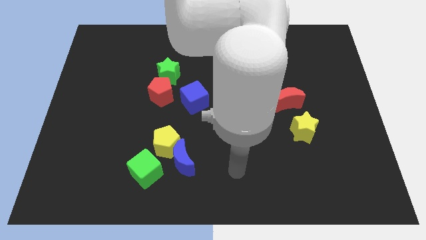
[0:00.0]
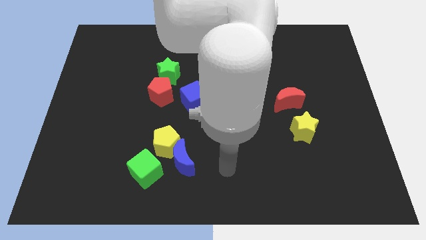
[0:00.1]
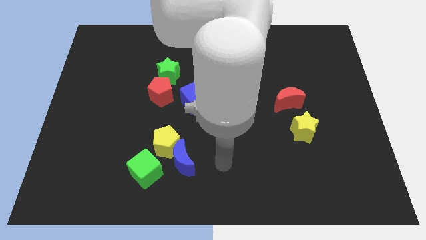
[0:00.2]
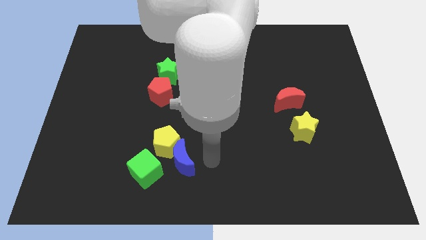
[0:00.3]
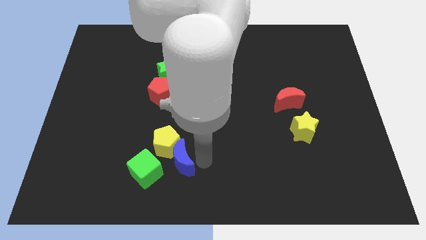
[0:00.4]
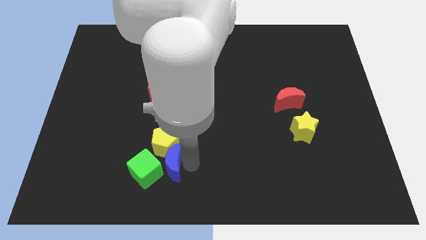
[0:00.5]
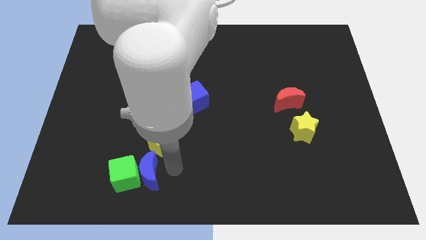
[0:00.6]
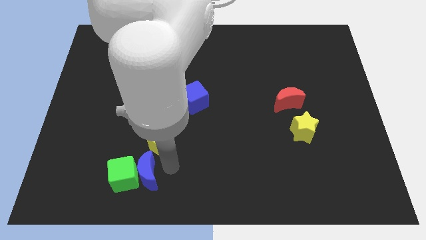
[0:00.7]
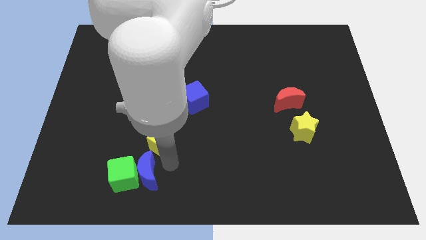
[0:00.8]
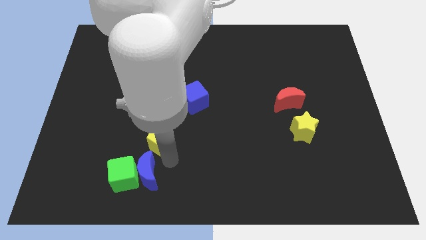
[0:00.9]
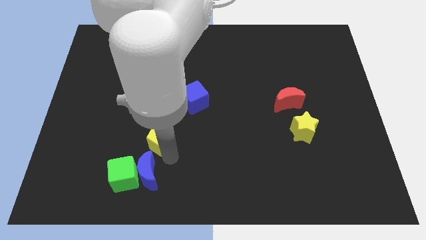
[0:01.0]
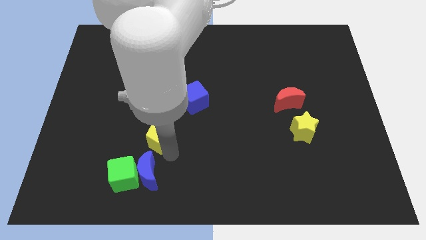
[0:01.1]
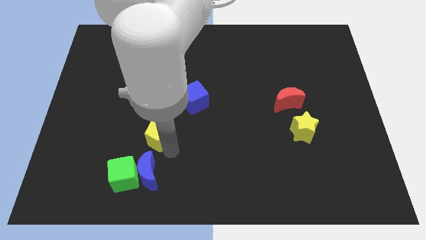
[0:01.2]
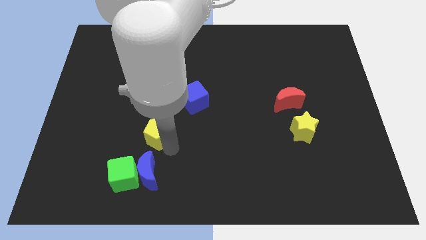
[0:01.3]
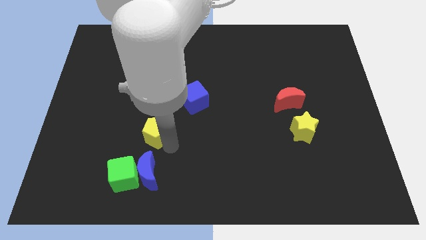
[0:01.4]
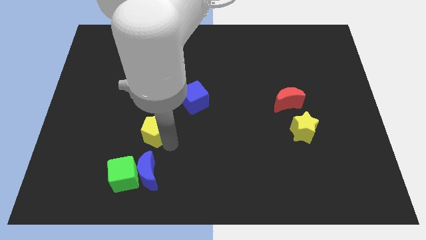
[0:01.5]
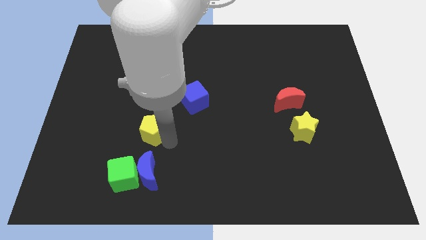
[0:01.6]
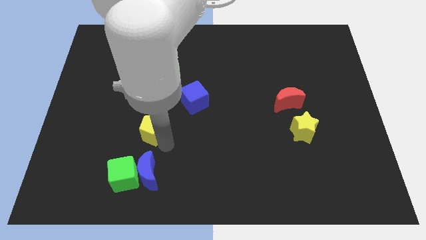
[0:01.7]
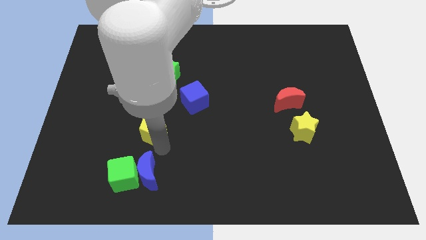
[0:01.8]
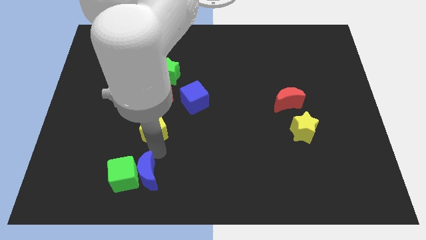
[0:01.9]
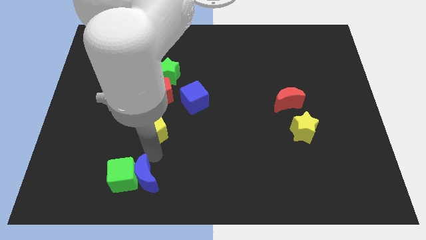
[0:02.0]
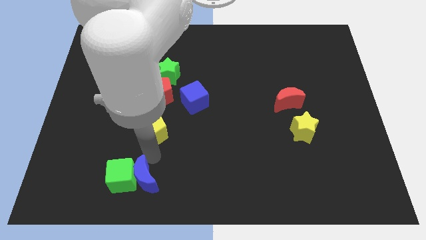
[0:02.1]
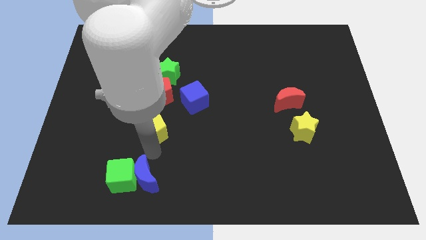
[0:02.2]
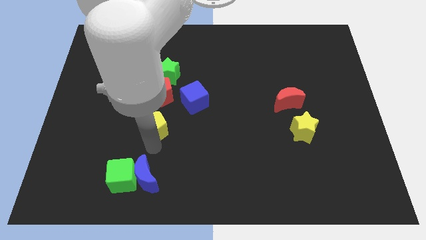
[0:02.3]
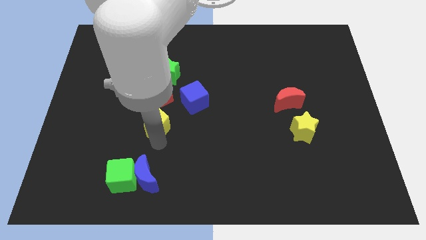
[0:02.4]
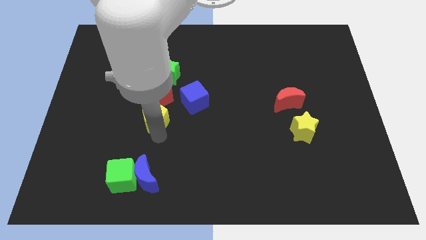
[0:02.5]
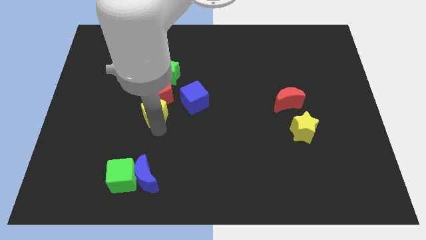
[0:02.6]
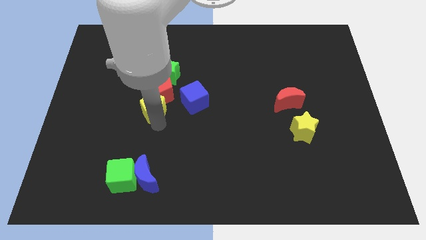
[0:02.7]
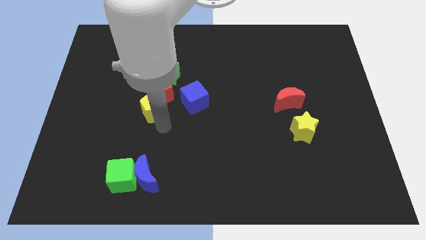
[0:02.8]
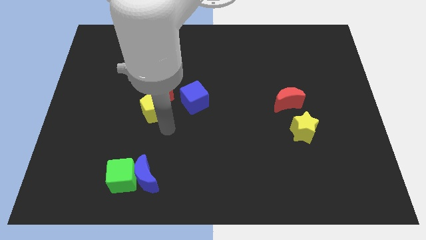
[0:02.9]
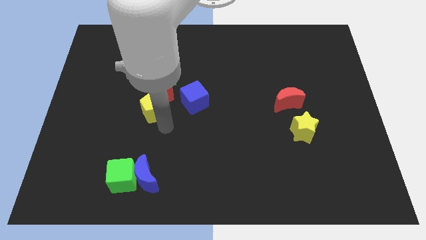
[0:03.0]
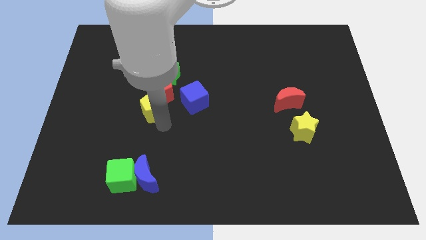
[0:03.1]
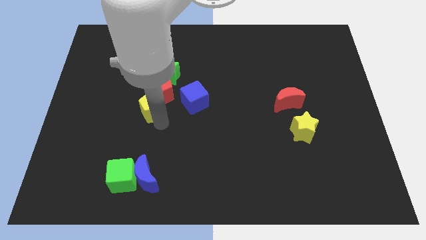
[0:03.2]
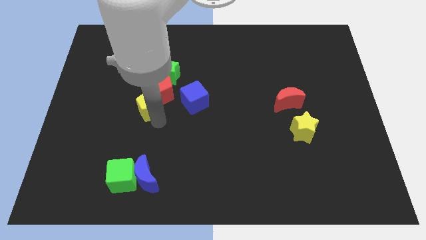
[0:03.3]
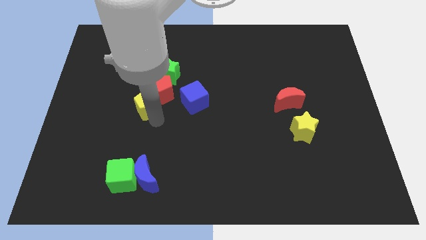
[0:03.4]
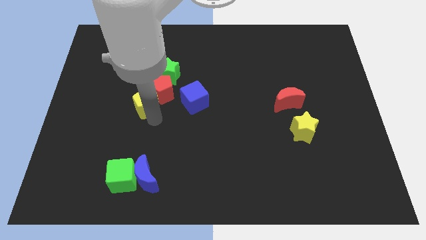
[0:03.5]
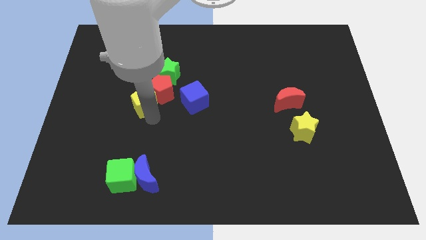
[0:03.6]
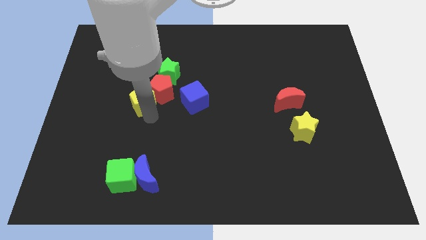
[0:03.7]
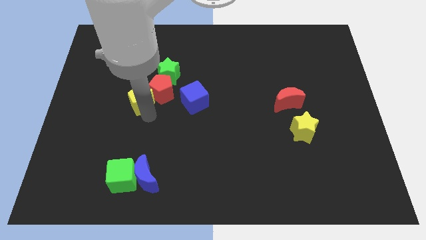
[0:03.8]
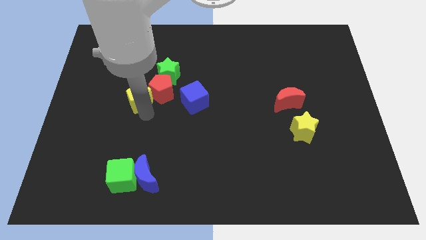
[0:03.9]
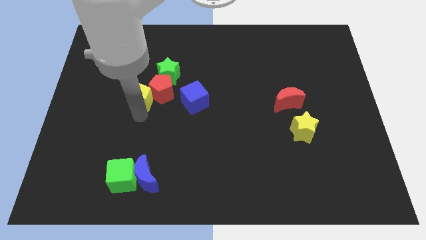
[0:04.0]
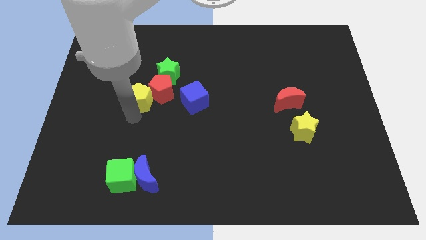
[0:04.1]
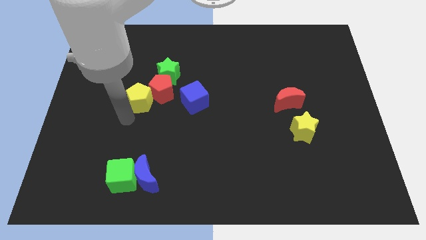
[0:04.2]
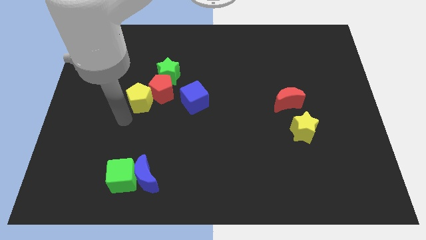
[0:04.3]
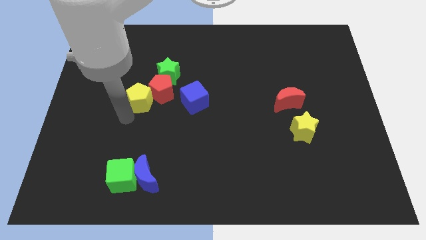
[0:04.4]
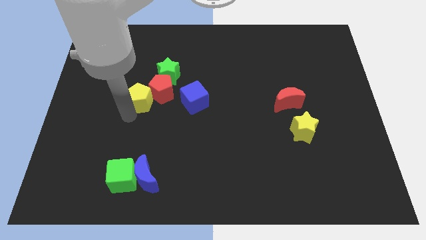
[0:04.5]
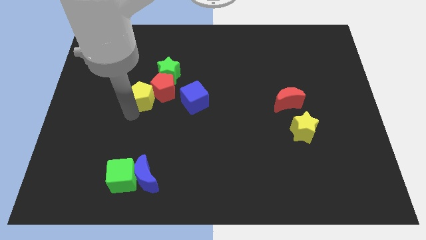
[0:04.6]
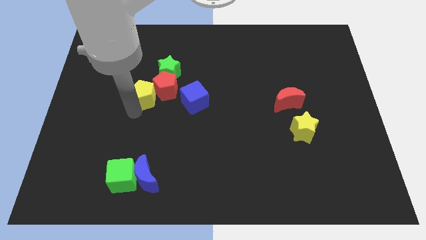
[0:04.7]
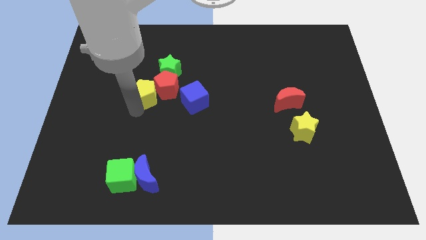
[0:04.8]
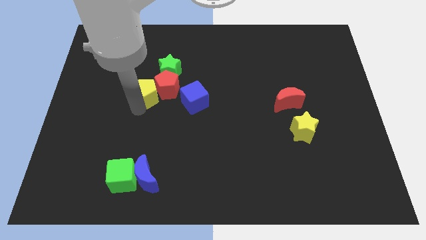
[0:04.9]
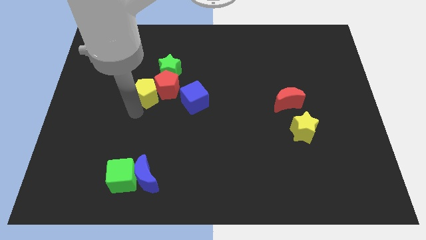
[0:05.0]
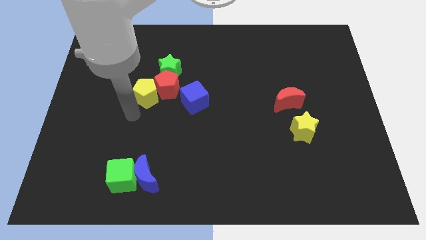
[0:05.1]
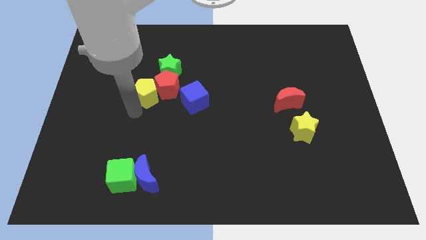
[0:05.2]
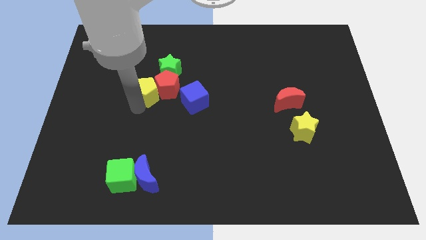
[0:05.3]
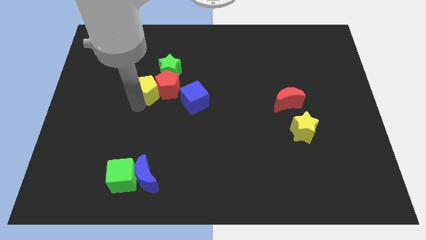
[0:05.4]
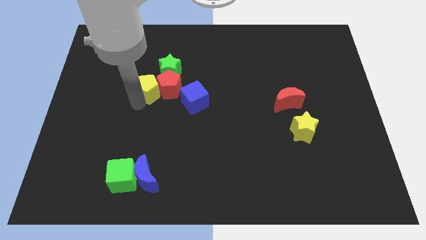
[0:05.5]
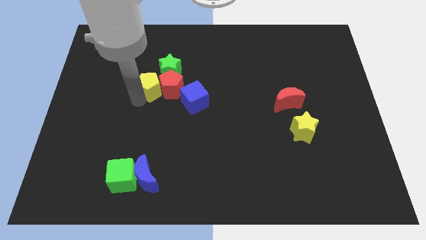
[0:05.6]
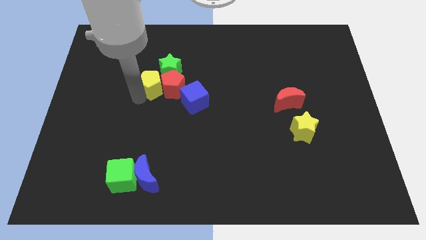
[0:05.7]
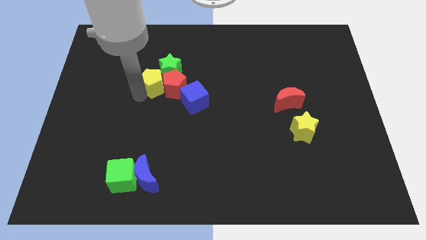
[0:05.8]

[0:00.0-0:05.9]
put the yellow pentagon towards the green star
